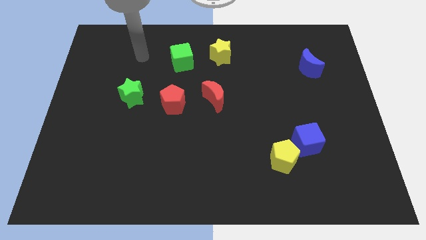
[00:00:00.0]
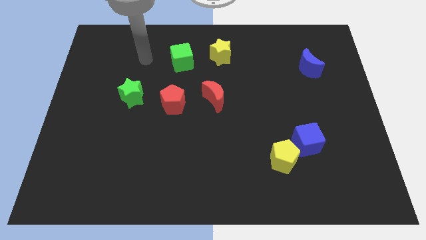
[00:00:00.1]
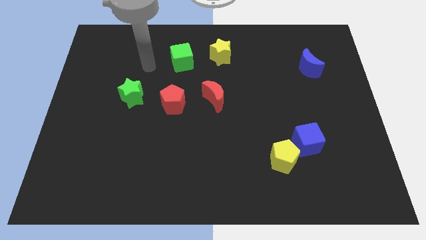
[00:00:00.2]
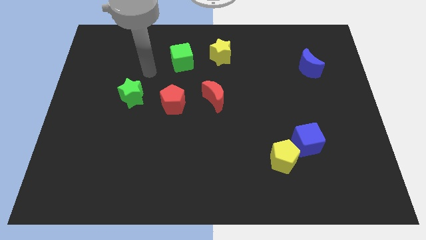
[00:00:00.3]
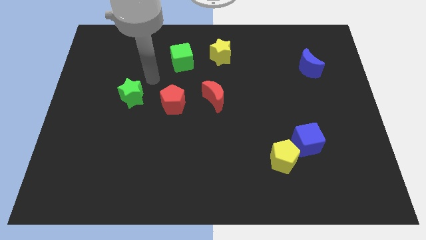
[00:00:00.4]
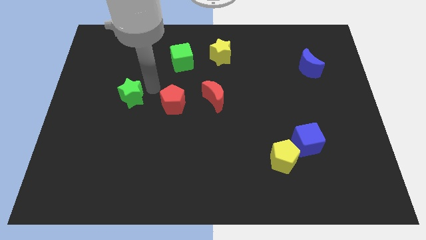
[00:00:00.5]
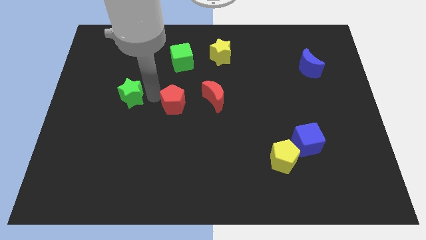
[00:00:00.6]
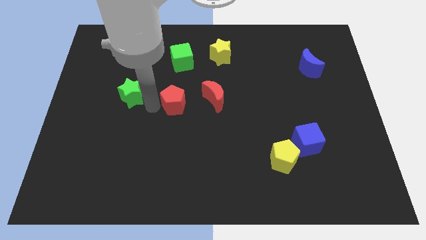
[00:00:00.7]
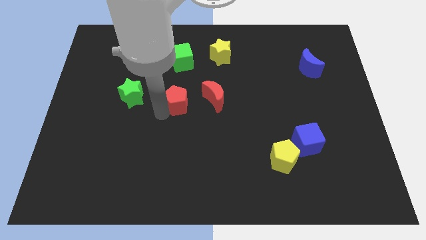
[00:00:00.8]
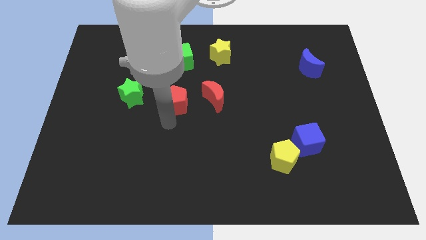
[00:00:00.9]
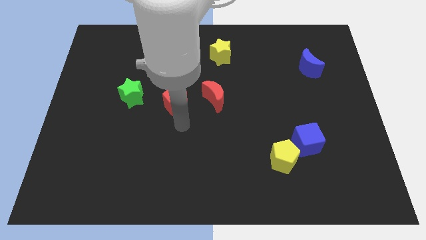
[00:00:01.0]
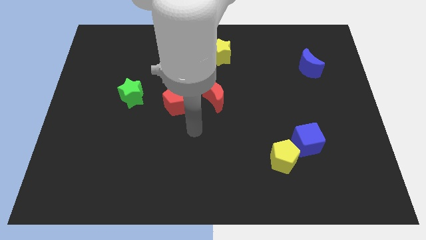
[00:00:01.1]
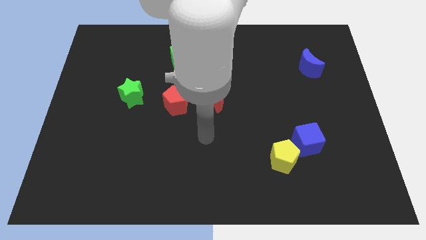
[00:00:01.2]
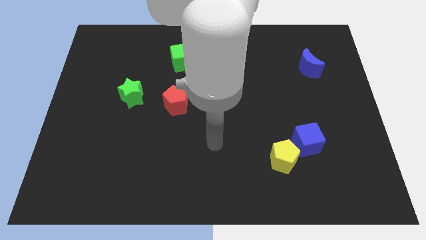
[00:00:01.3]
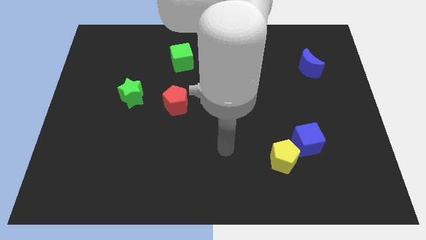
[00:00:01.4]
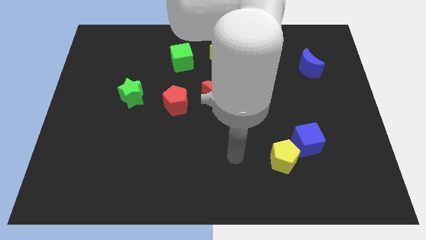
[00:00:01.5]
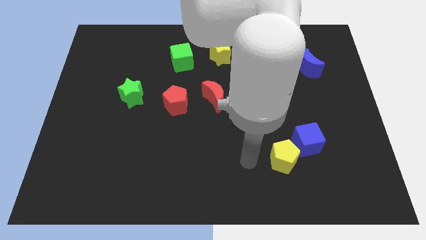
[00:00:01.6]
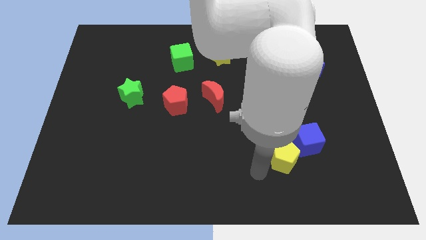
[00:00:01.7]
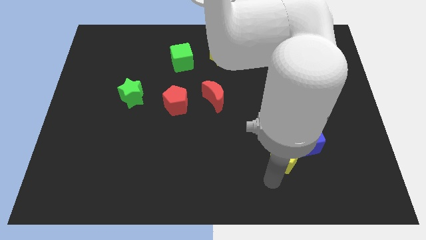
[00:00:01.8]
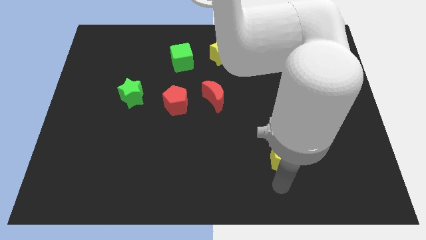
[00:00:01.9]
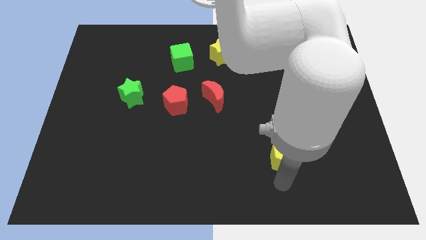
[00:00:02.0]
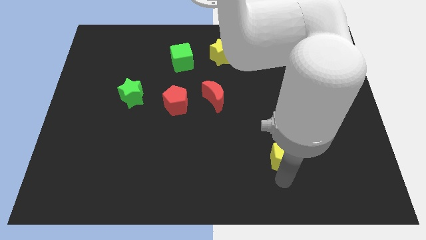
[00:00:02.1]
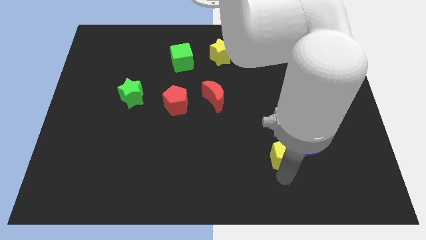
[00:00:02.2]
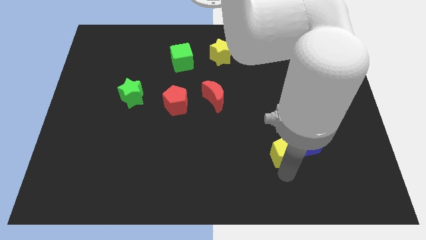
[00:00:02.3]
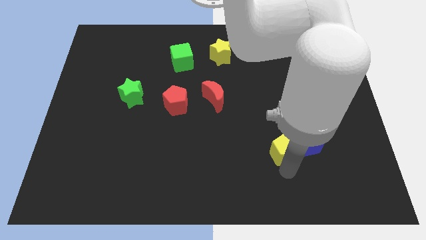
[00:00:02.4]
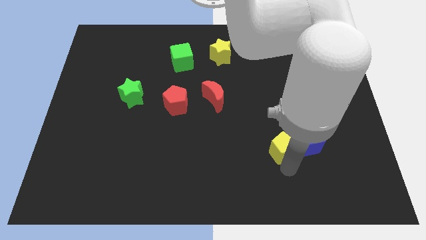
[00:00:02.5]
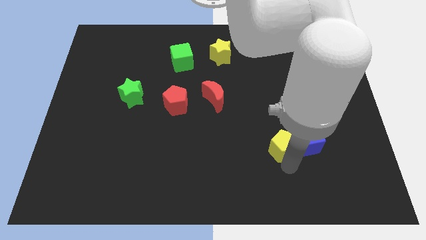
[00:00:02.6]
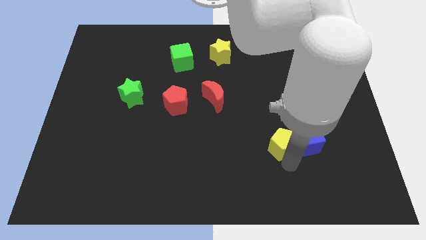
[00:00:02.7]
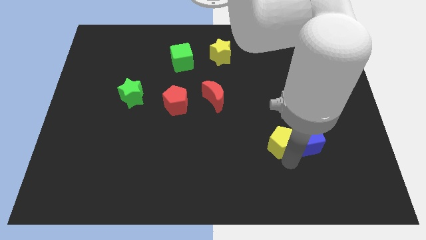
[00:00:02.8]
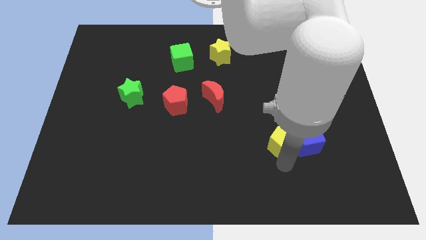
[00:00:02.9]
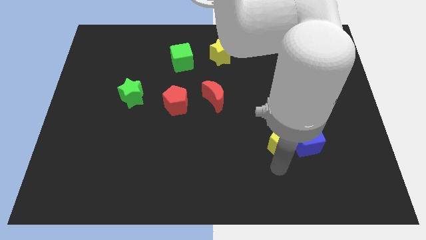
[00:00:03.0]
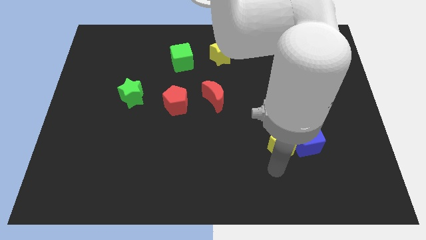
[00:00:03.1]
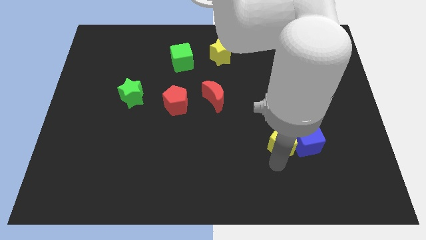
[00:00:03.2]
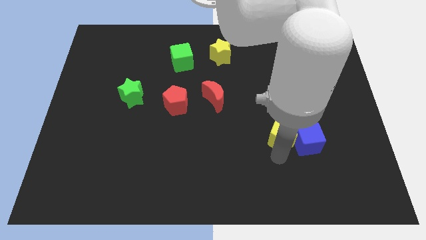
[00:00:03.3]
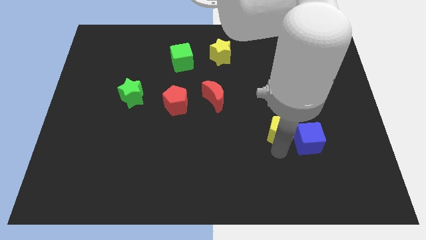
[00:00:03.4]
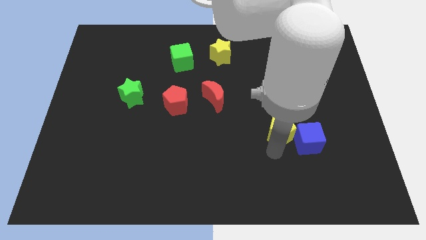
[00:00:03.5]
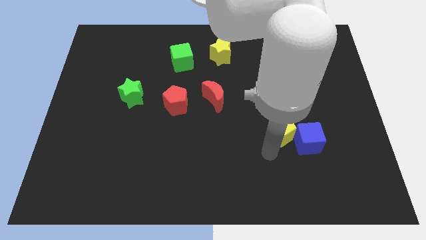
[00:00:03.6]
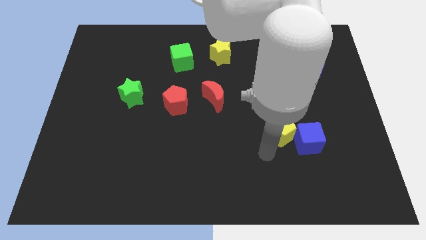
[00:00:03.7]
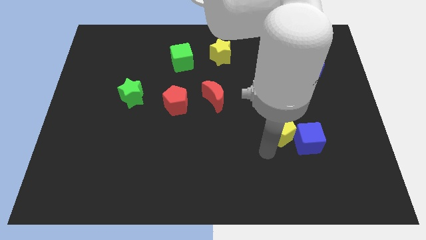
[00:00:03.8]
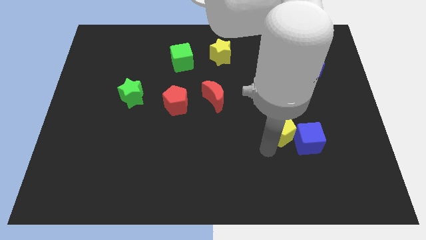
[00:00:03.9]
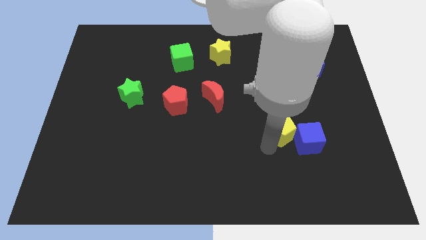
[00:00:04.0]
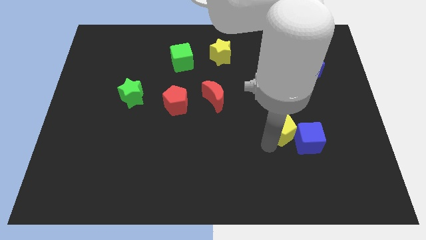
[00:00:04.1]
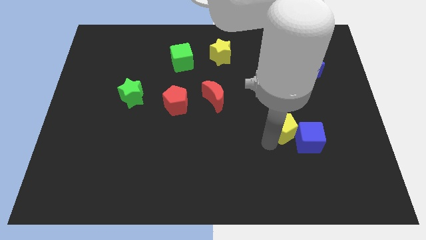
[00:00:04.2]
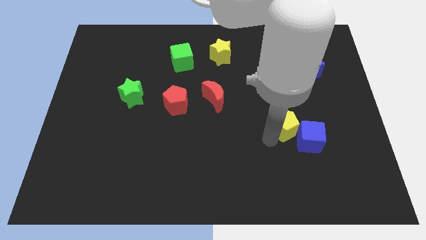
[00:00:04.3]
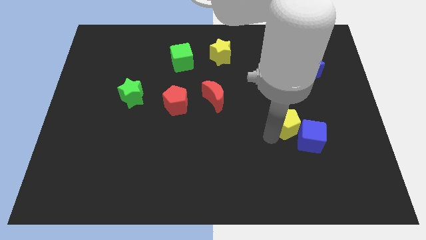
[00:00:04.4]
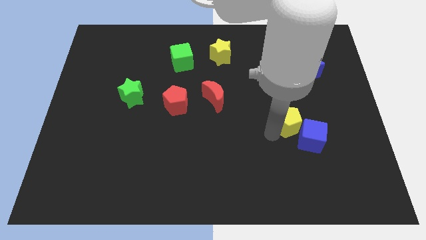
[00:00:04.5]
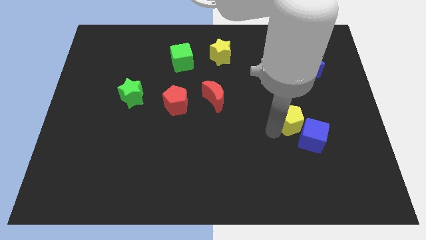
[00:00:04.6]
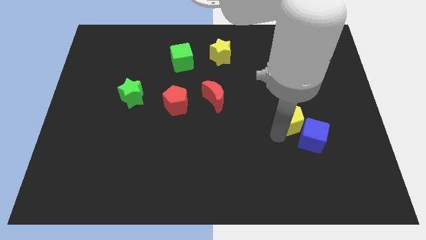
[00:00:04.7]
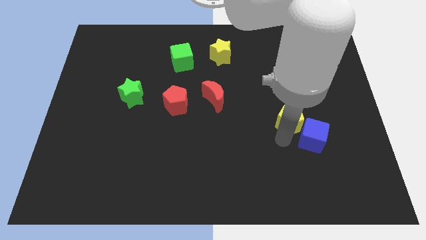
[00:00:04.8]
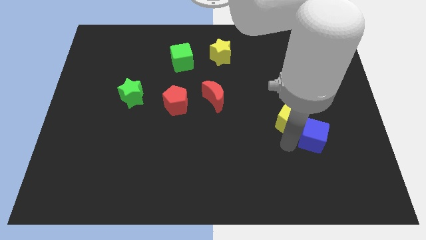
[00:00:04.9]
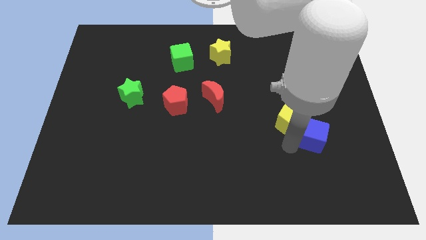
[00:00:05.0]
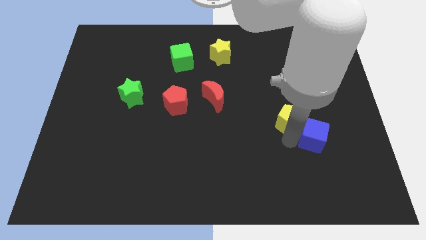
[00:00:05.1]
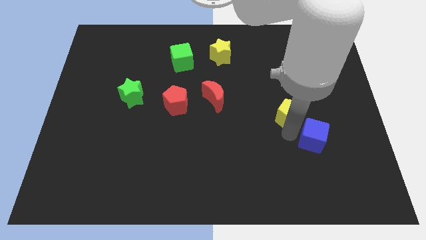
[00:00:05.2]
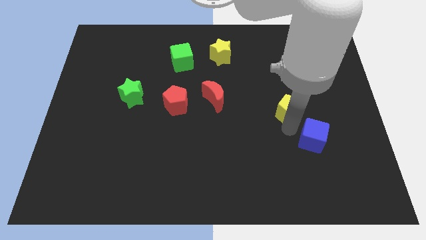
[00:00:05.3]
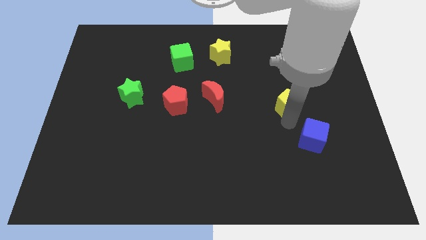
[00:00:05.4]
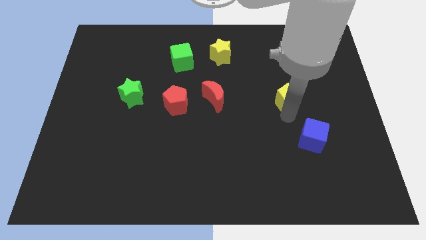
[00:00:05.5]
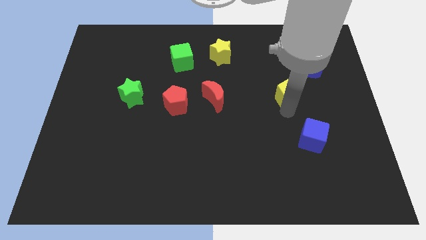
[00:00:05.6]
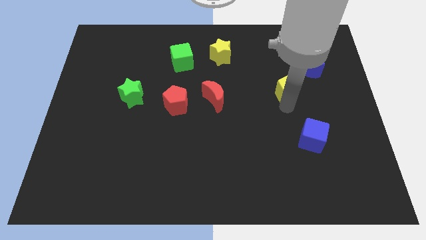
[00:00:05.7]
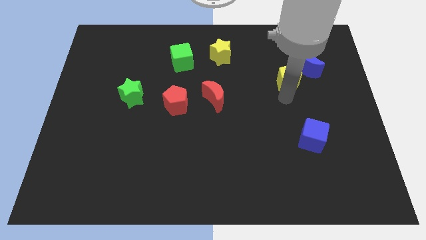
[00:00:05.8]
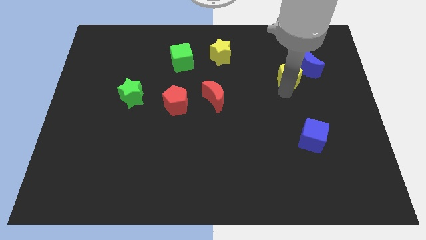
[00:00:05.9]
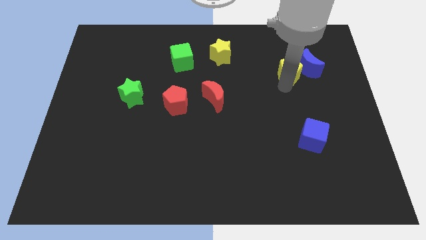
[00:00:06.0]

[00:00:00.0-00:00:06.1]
put the yellow pentagon towards the blue moon

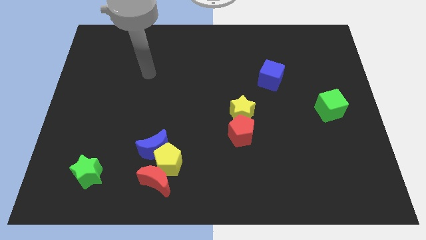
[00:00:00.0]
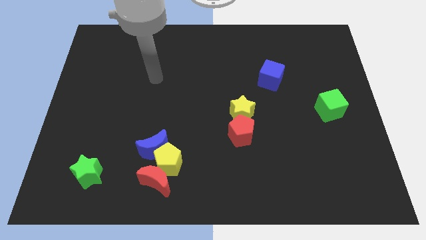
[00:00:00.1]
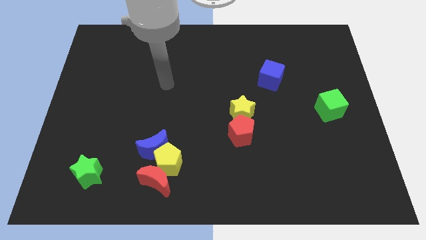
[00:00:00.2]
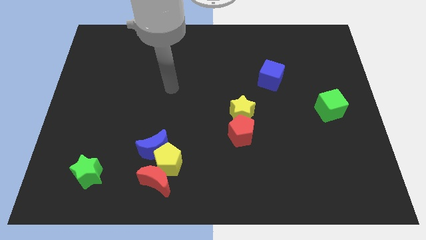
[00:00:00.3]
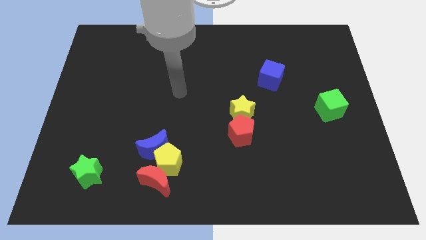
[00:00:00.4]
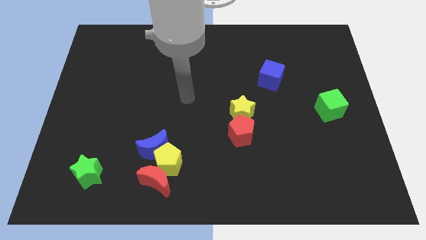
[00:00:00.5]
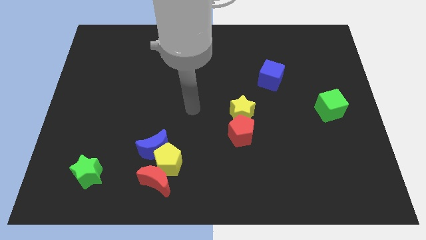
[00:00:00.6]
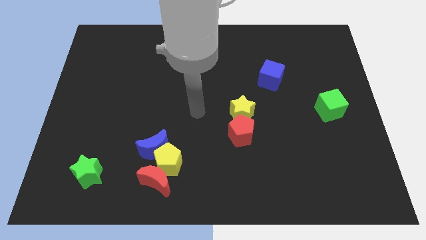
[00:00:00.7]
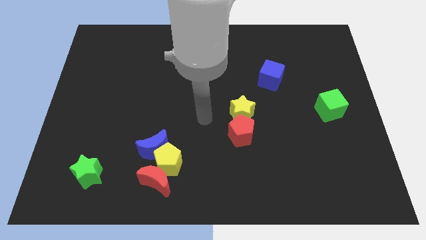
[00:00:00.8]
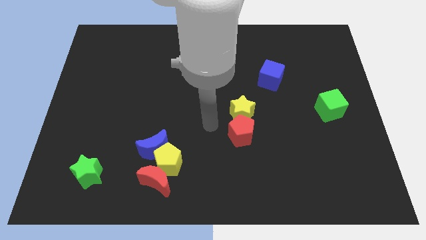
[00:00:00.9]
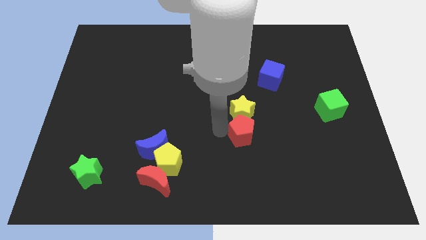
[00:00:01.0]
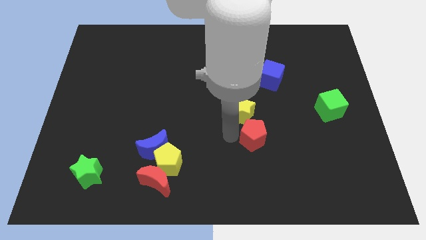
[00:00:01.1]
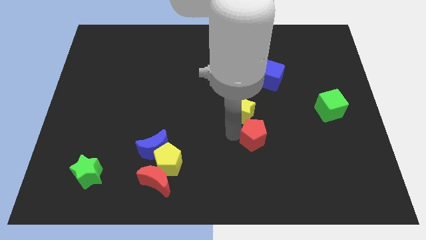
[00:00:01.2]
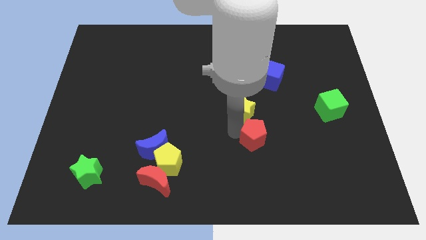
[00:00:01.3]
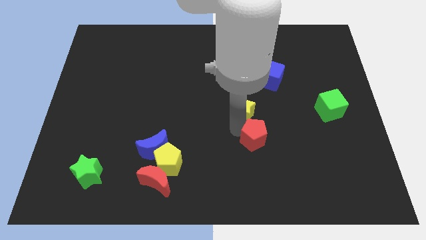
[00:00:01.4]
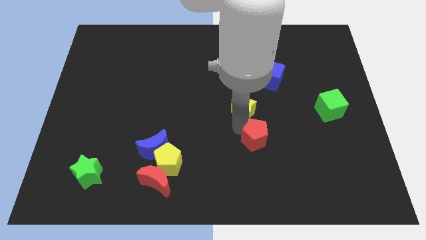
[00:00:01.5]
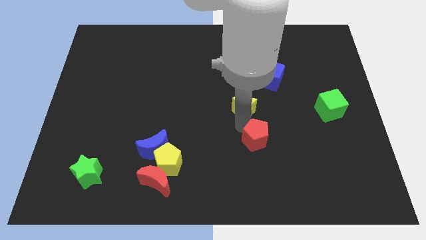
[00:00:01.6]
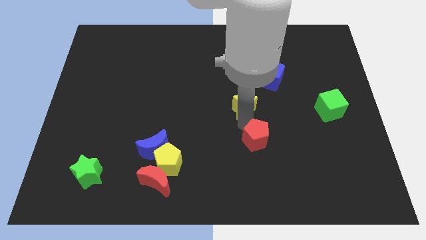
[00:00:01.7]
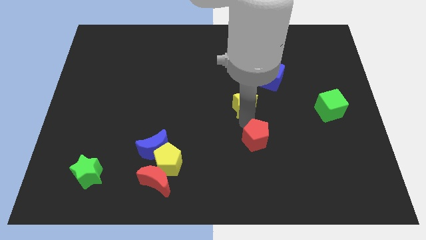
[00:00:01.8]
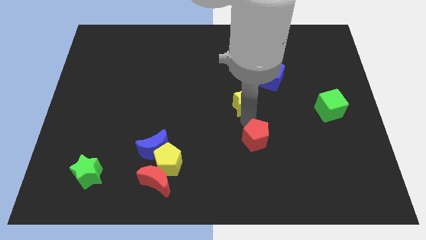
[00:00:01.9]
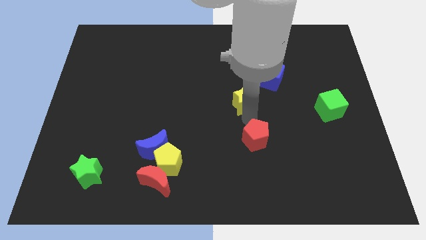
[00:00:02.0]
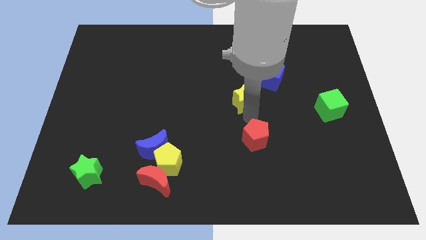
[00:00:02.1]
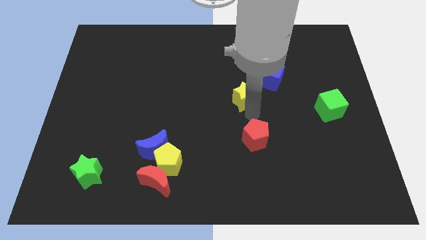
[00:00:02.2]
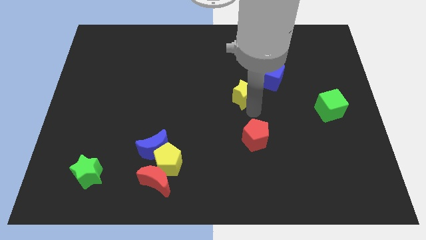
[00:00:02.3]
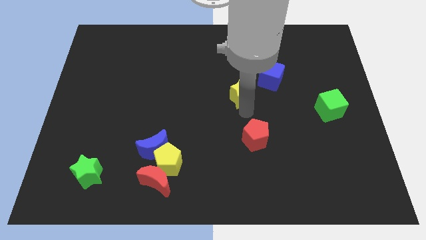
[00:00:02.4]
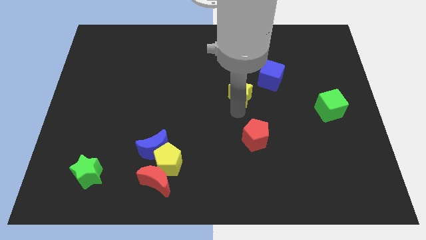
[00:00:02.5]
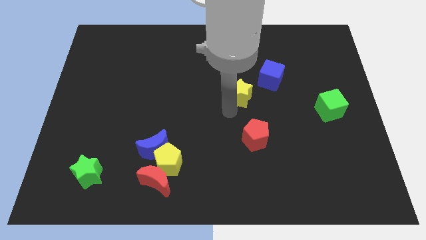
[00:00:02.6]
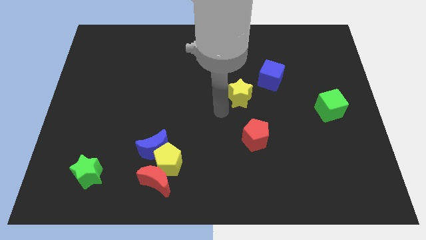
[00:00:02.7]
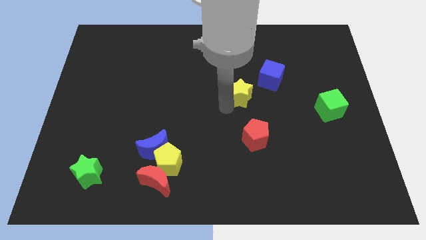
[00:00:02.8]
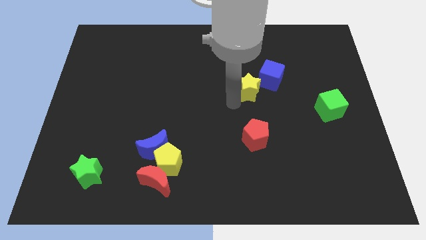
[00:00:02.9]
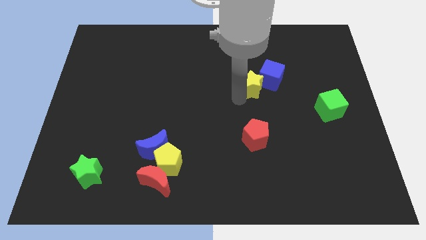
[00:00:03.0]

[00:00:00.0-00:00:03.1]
slide the yellow star next to the blue cube
